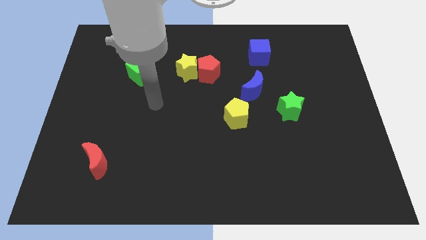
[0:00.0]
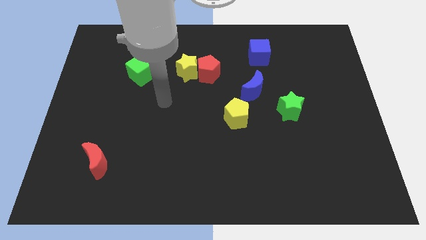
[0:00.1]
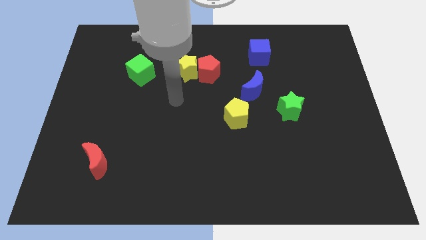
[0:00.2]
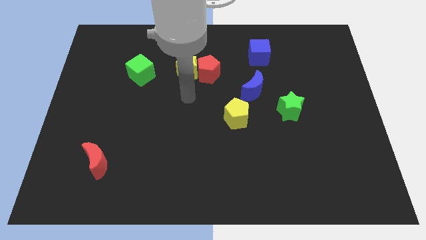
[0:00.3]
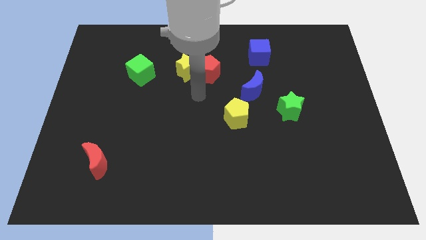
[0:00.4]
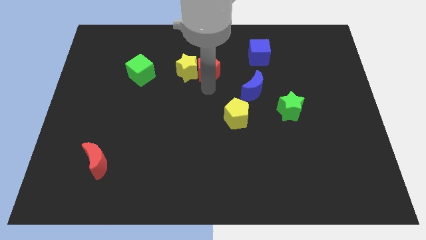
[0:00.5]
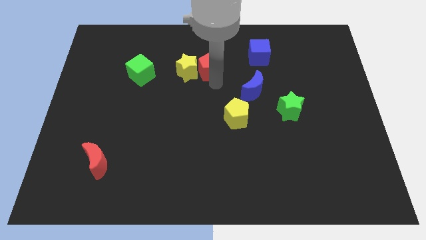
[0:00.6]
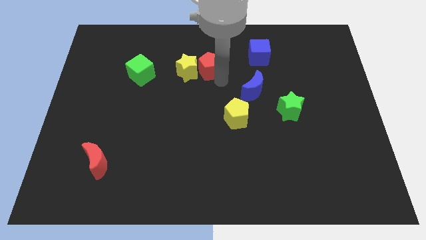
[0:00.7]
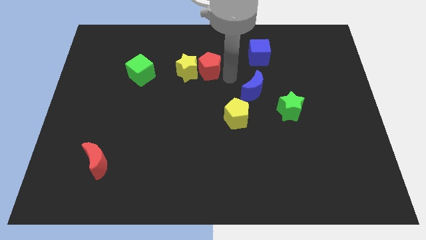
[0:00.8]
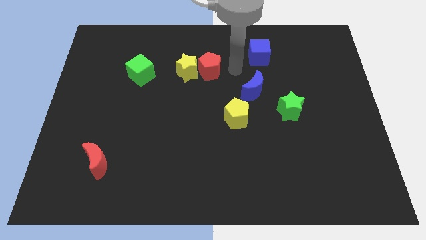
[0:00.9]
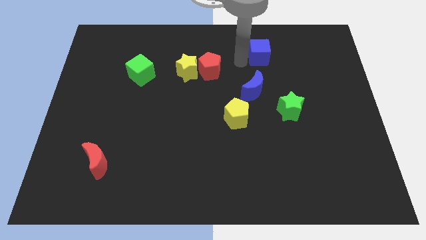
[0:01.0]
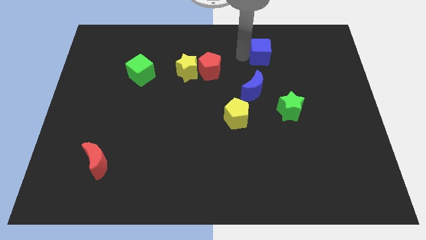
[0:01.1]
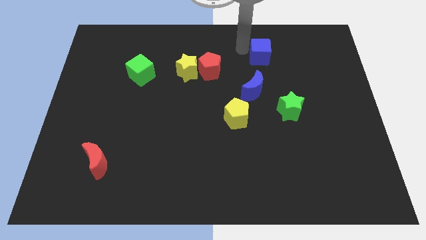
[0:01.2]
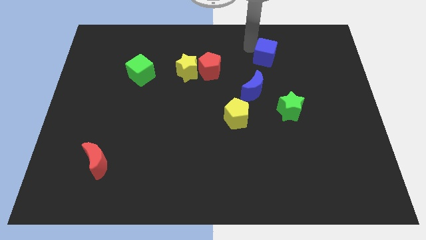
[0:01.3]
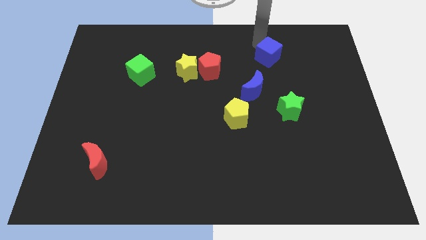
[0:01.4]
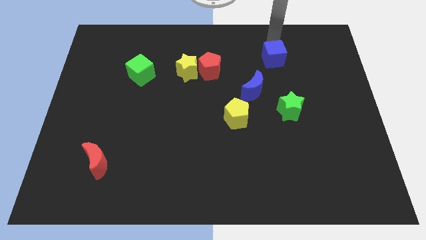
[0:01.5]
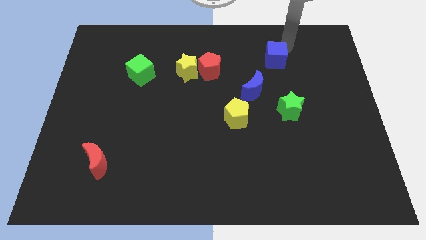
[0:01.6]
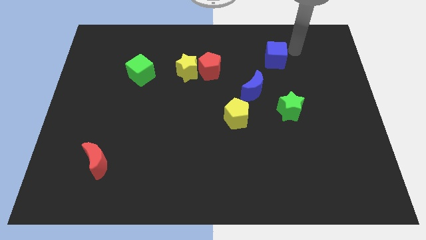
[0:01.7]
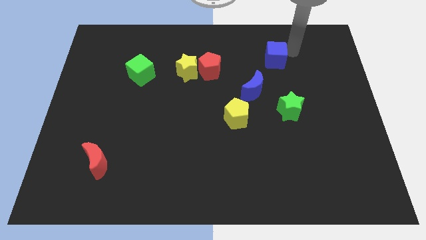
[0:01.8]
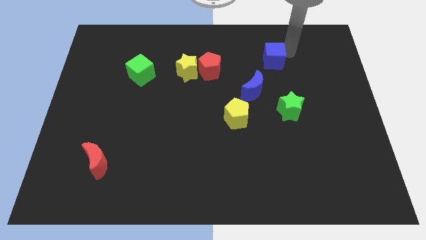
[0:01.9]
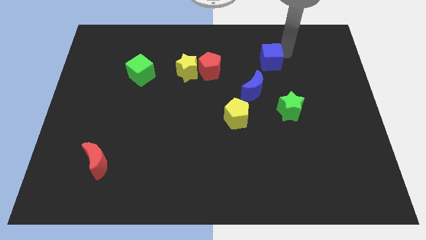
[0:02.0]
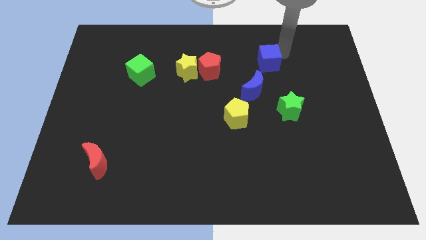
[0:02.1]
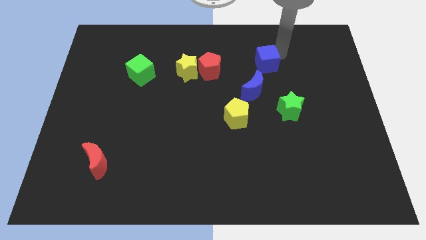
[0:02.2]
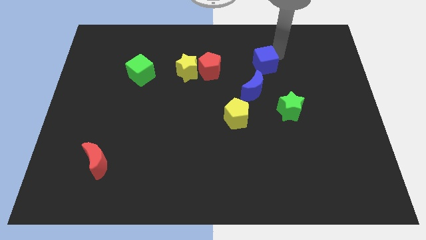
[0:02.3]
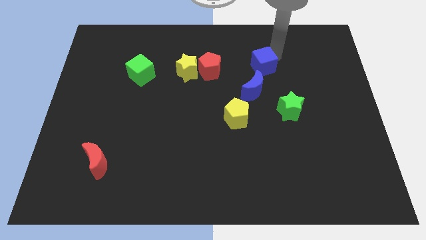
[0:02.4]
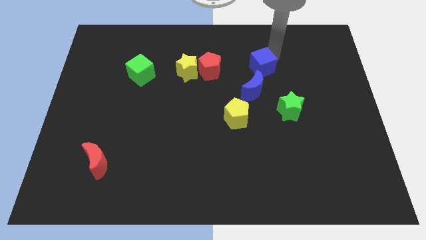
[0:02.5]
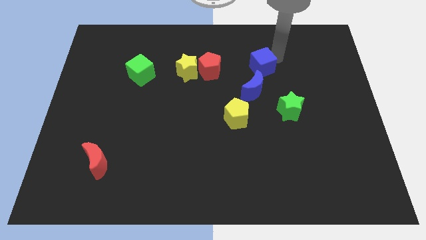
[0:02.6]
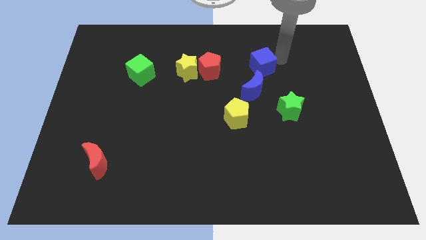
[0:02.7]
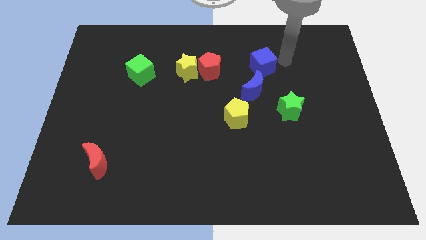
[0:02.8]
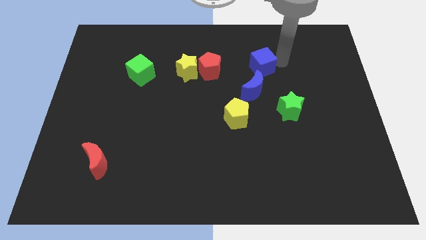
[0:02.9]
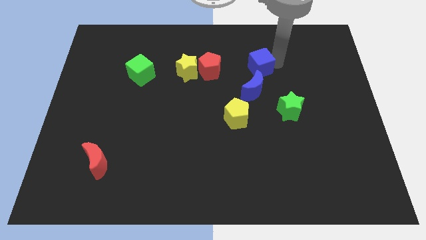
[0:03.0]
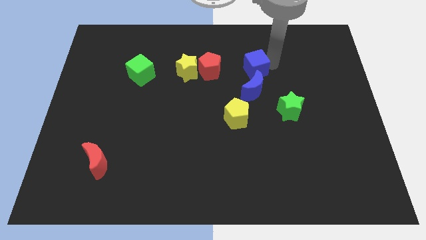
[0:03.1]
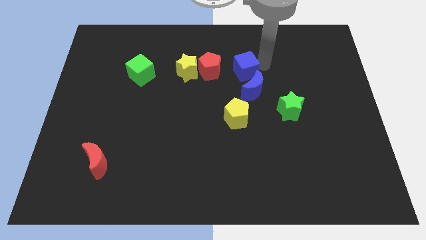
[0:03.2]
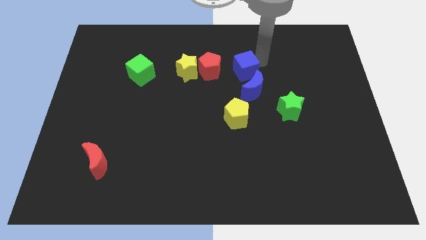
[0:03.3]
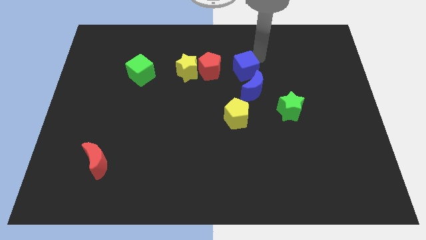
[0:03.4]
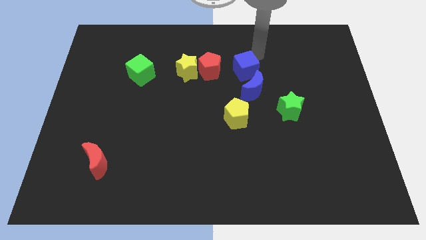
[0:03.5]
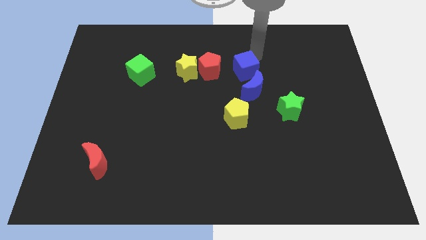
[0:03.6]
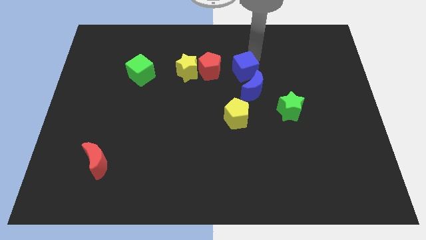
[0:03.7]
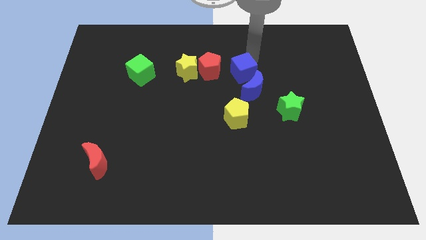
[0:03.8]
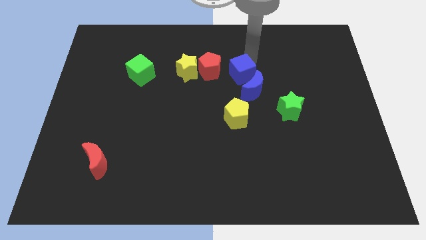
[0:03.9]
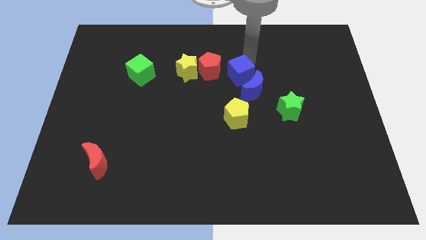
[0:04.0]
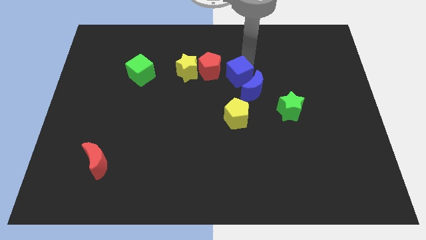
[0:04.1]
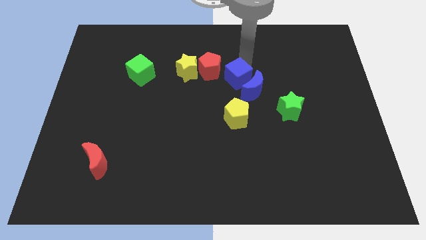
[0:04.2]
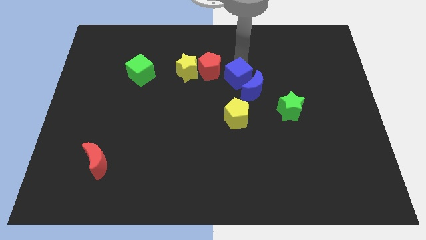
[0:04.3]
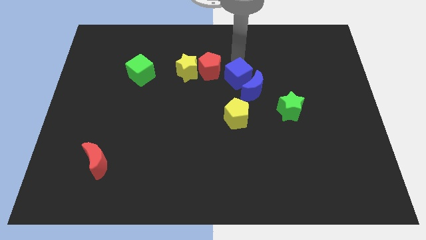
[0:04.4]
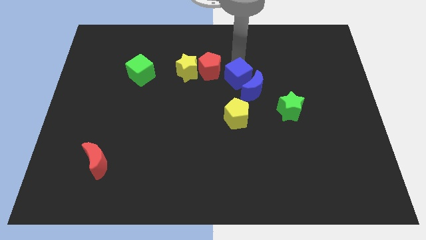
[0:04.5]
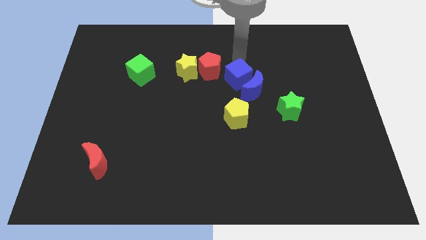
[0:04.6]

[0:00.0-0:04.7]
slide the blue cube downwards slightly

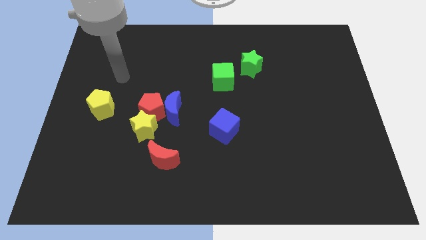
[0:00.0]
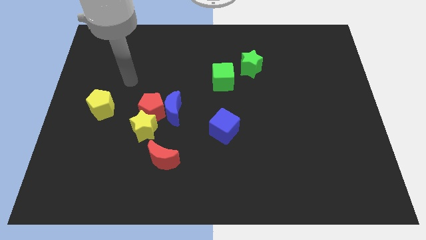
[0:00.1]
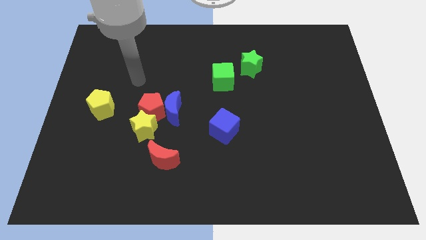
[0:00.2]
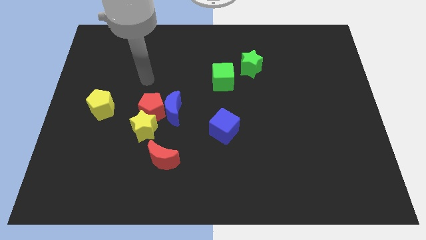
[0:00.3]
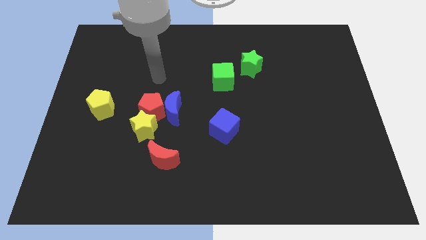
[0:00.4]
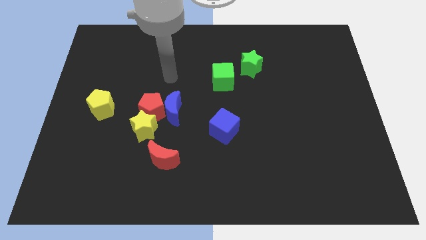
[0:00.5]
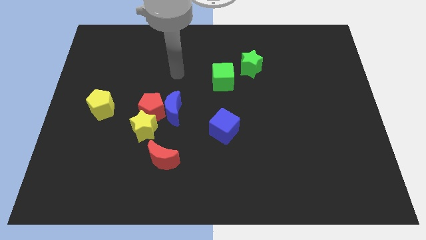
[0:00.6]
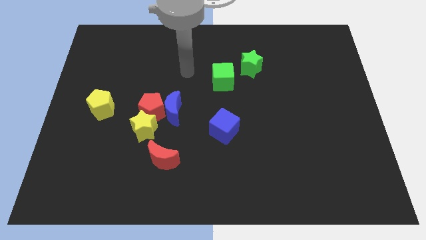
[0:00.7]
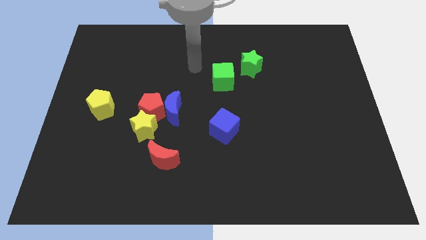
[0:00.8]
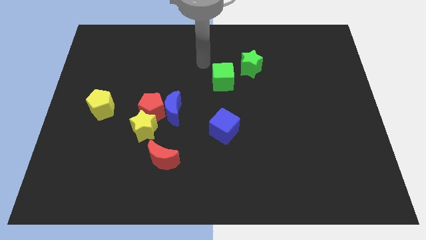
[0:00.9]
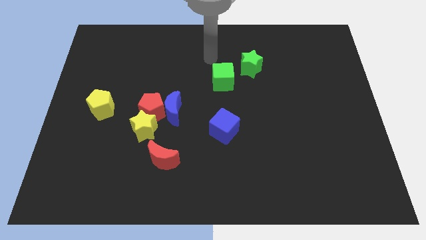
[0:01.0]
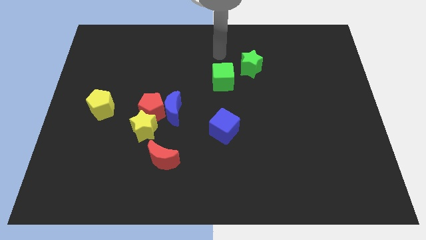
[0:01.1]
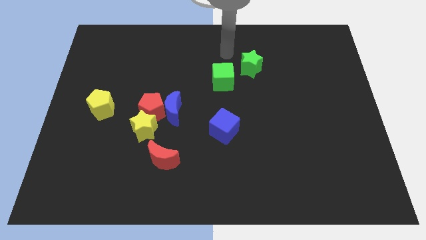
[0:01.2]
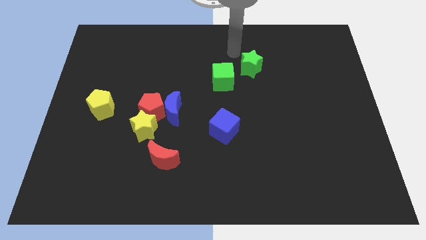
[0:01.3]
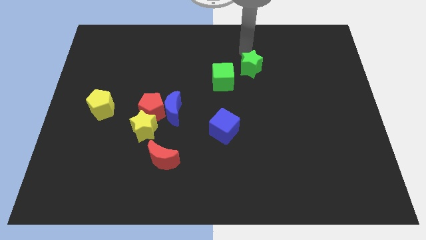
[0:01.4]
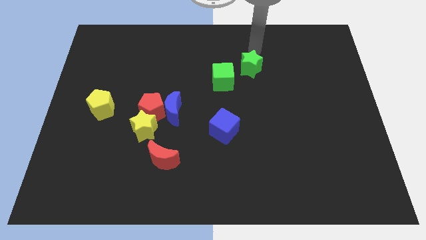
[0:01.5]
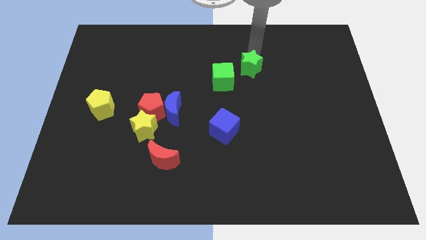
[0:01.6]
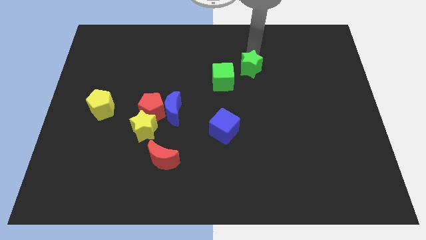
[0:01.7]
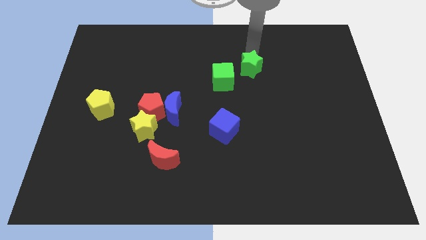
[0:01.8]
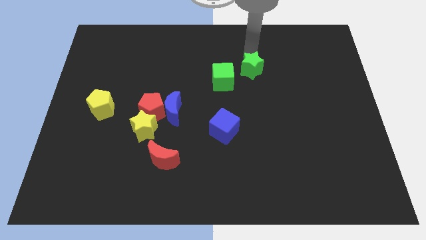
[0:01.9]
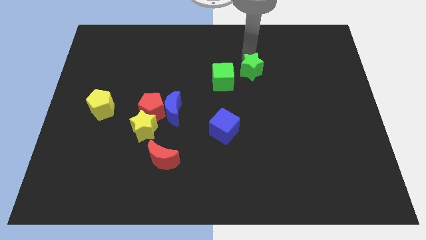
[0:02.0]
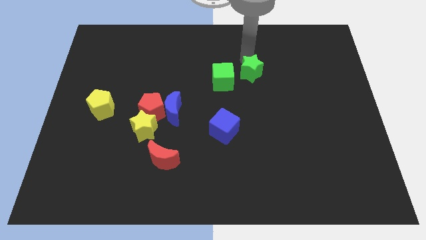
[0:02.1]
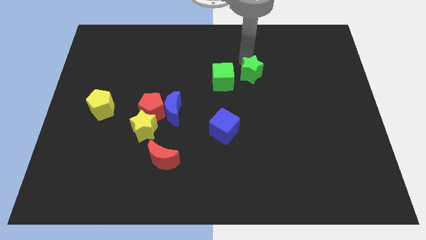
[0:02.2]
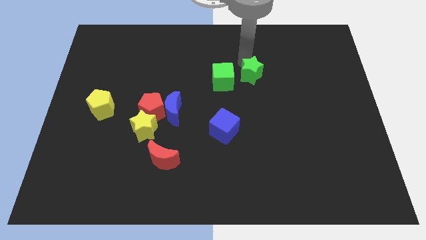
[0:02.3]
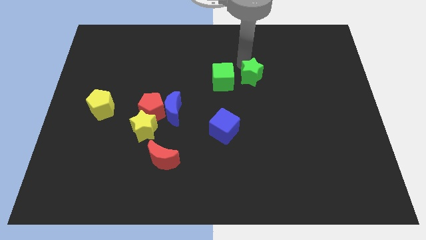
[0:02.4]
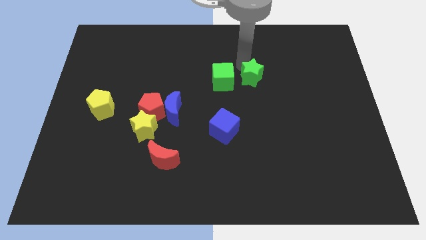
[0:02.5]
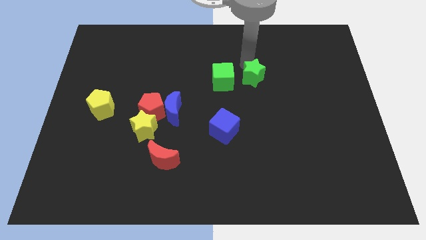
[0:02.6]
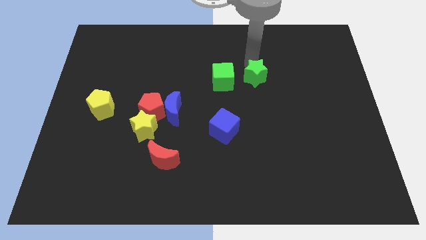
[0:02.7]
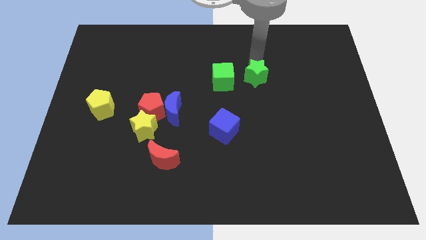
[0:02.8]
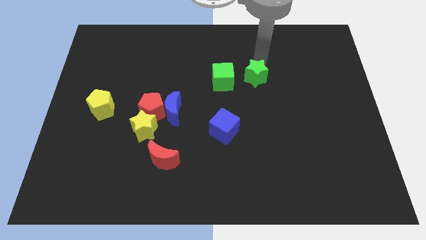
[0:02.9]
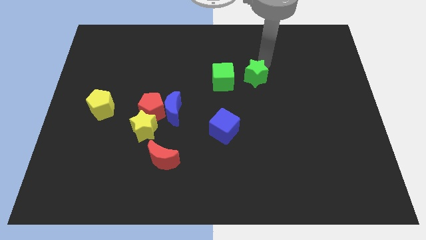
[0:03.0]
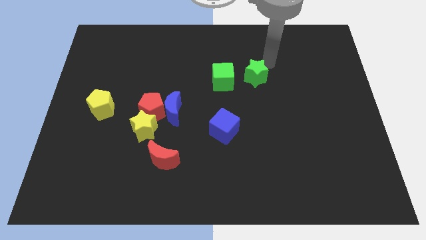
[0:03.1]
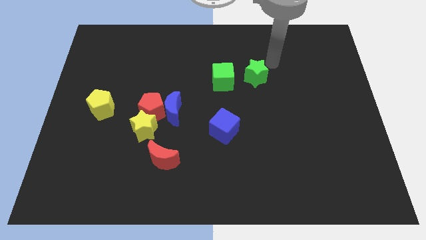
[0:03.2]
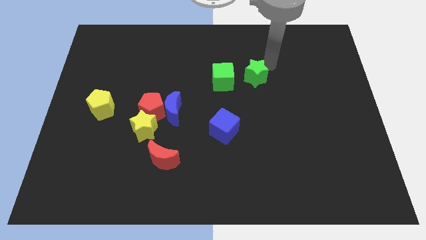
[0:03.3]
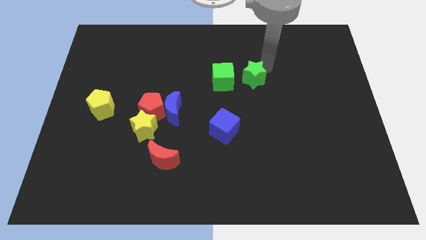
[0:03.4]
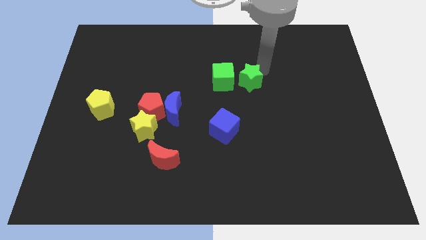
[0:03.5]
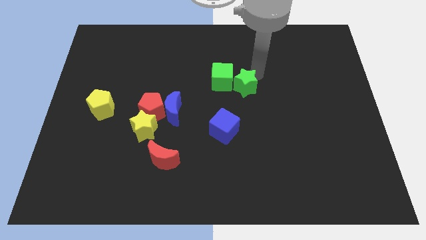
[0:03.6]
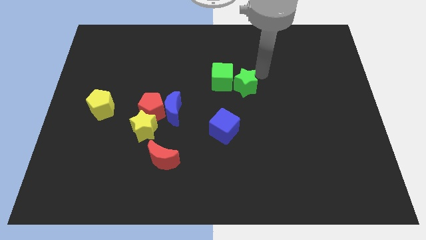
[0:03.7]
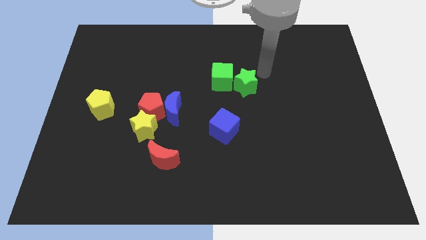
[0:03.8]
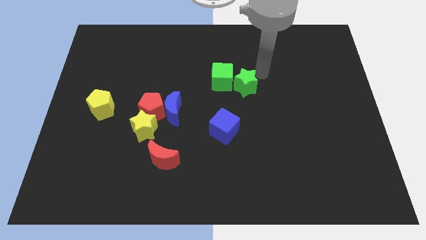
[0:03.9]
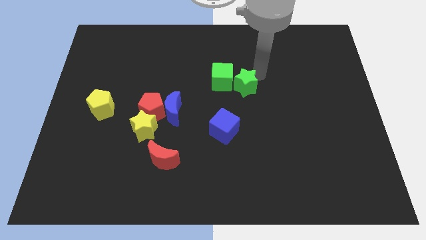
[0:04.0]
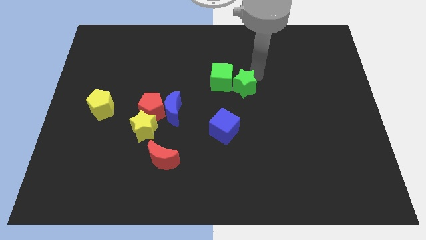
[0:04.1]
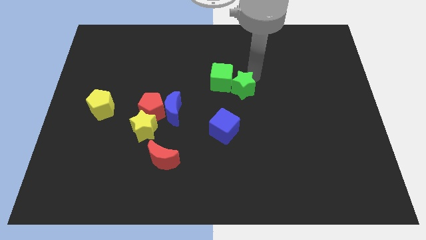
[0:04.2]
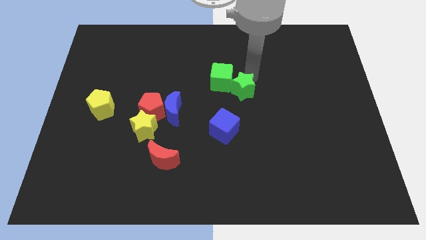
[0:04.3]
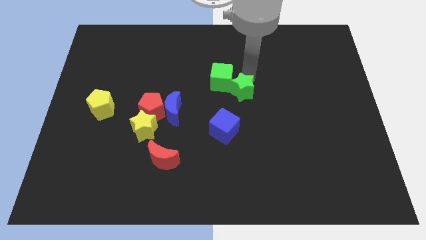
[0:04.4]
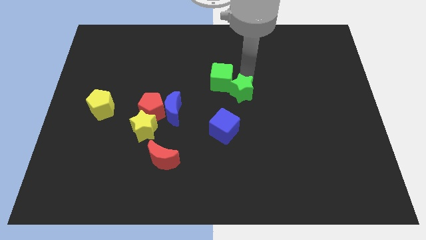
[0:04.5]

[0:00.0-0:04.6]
slide the green star slightly diagonally down and left
